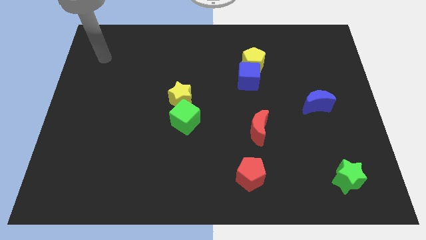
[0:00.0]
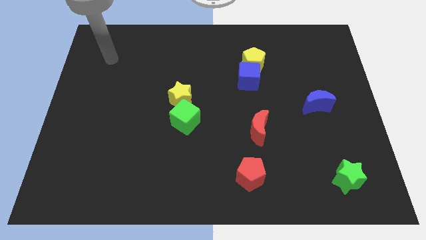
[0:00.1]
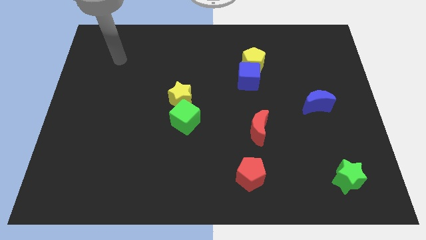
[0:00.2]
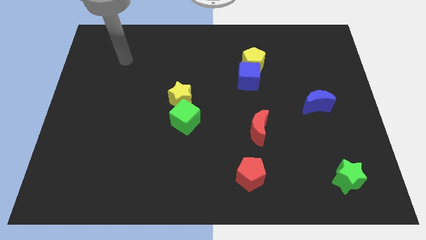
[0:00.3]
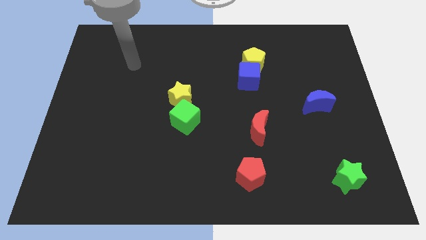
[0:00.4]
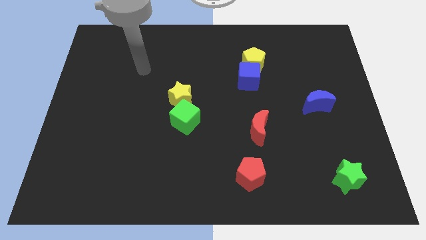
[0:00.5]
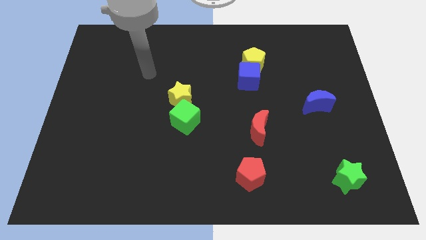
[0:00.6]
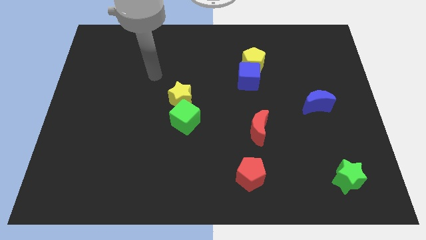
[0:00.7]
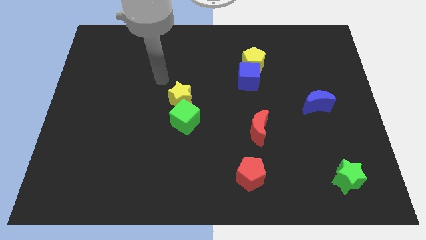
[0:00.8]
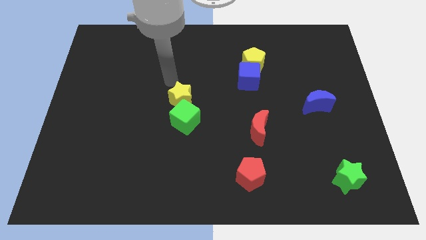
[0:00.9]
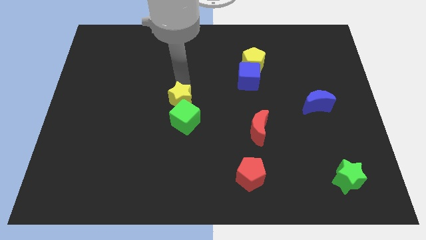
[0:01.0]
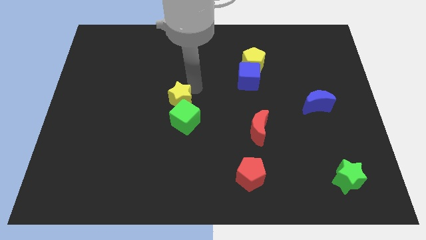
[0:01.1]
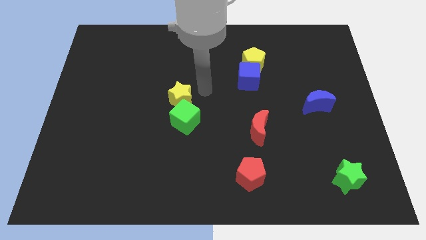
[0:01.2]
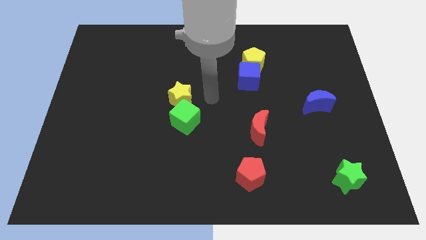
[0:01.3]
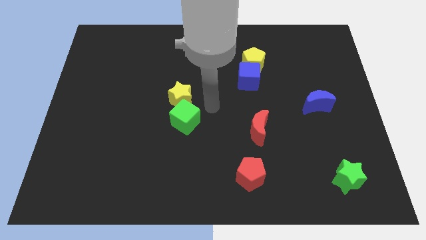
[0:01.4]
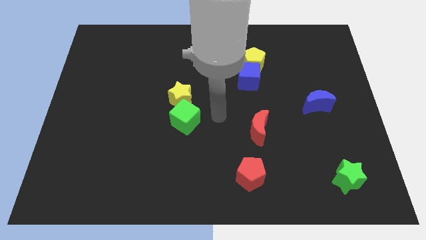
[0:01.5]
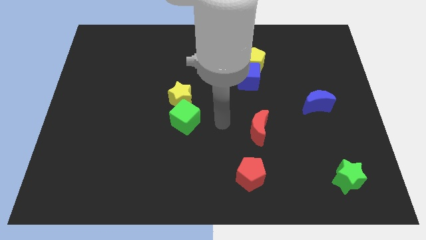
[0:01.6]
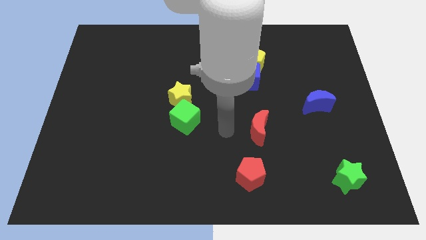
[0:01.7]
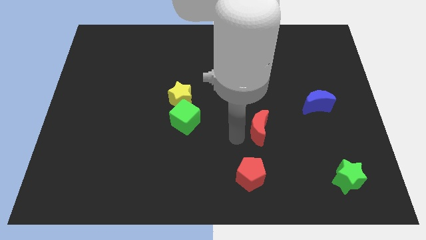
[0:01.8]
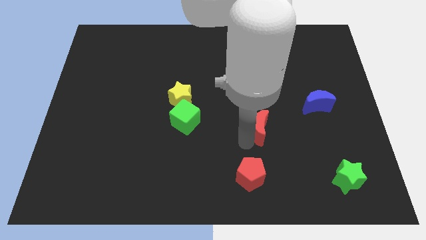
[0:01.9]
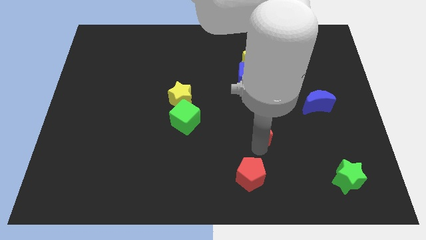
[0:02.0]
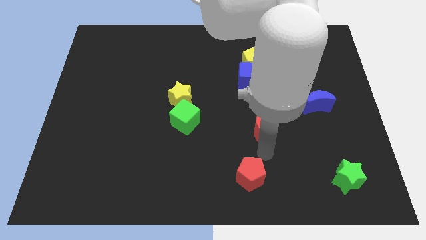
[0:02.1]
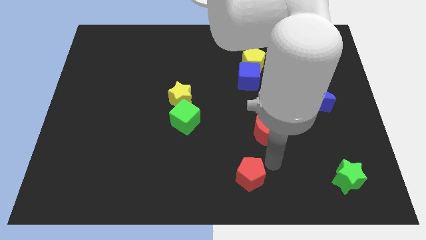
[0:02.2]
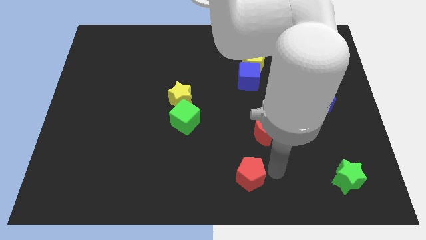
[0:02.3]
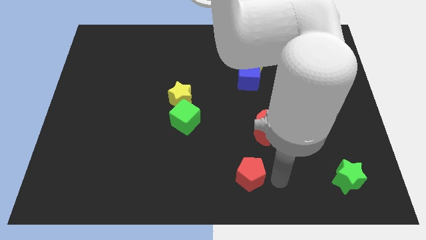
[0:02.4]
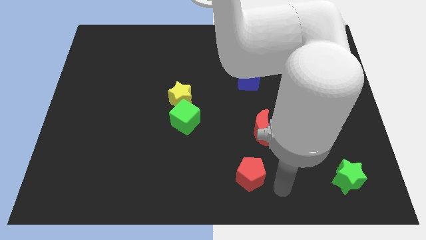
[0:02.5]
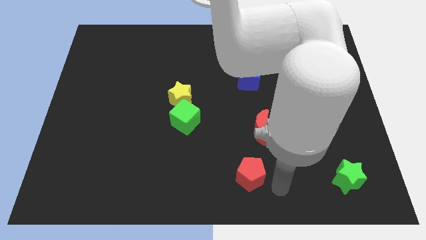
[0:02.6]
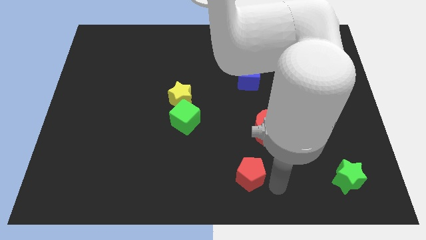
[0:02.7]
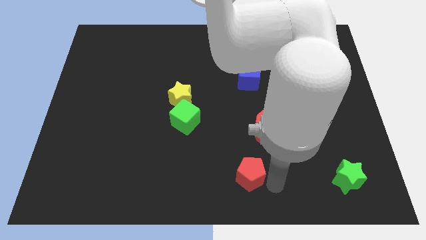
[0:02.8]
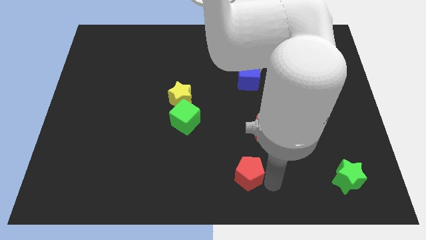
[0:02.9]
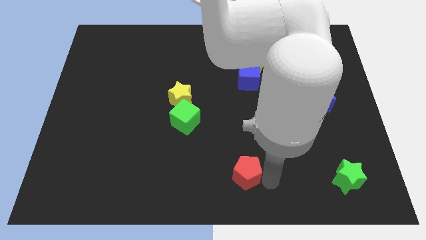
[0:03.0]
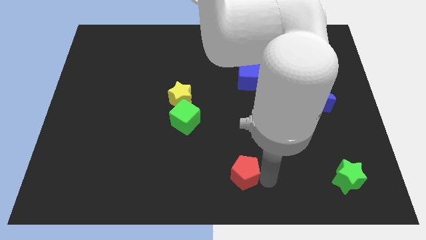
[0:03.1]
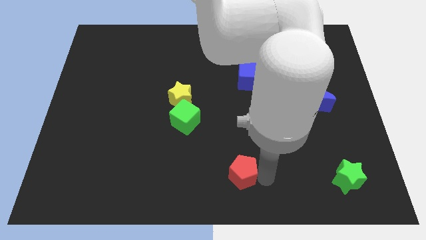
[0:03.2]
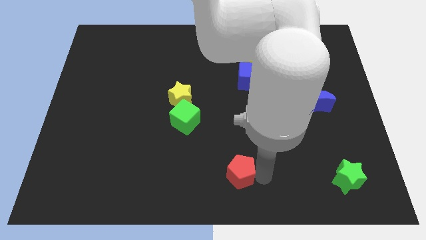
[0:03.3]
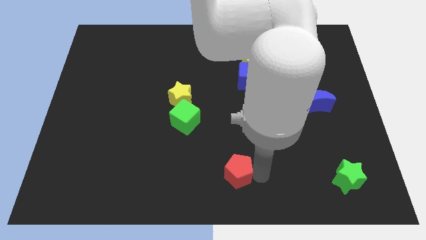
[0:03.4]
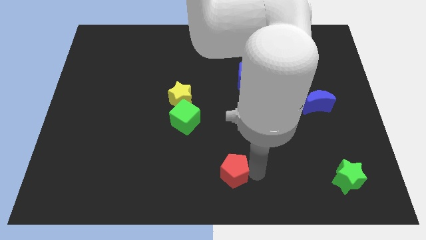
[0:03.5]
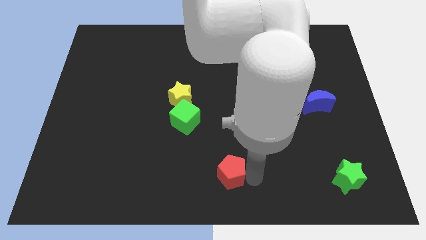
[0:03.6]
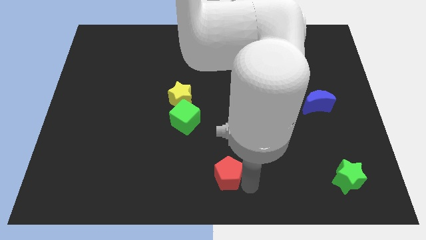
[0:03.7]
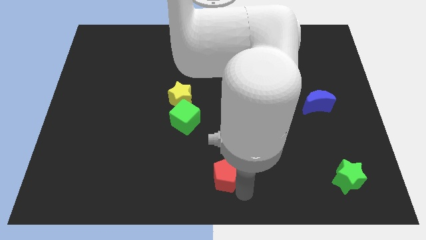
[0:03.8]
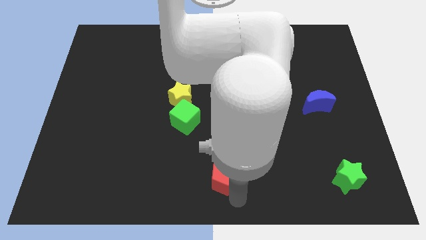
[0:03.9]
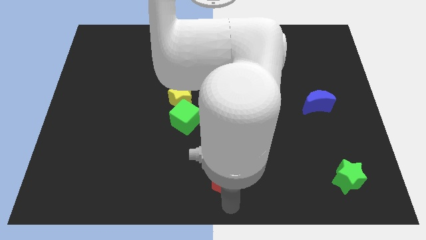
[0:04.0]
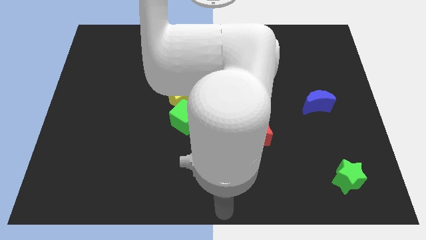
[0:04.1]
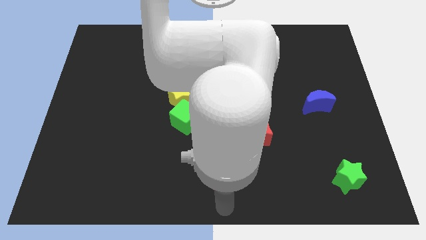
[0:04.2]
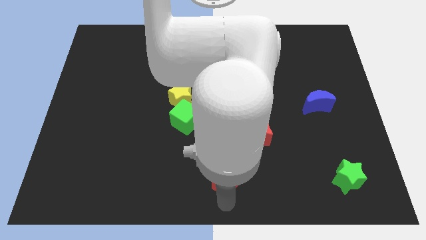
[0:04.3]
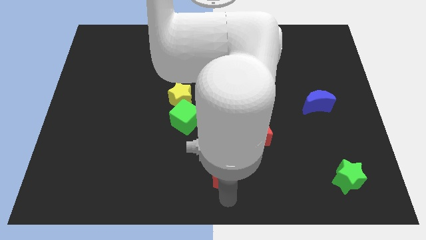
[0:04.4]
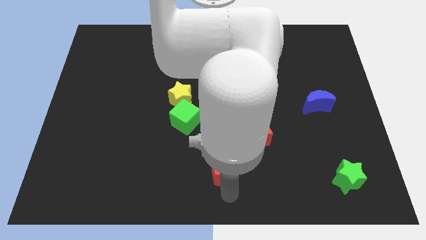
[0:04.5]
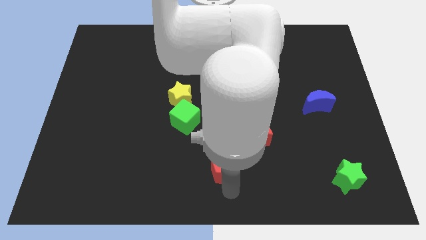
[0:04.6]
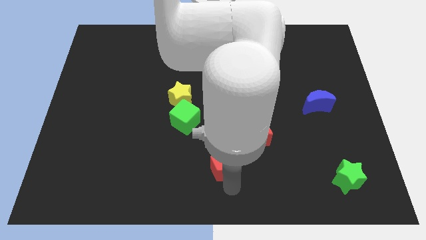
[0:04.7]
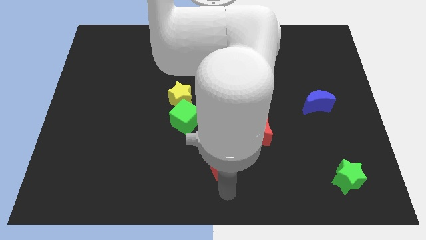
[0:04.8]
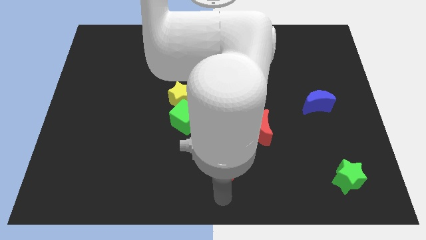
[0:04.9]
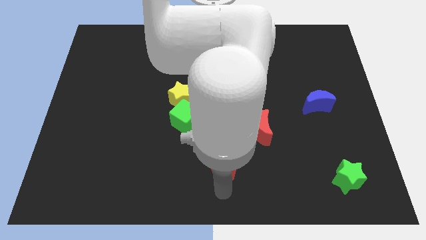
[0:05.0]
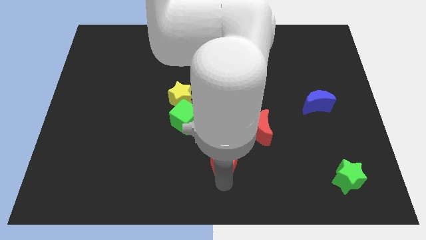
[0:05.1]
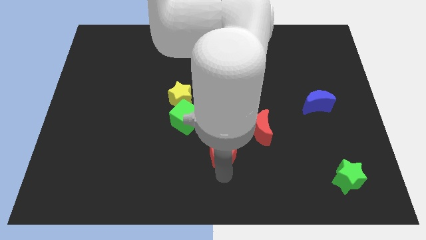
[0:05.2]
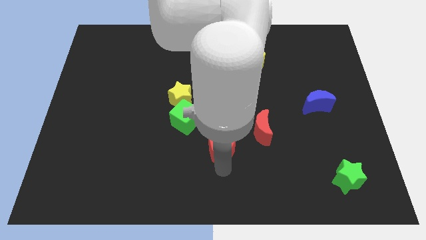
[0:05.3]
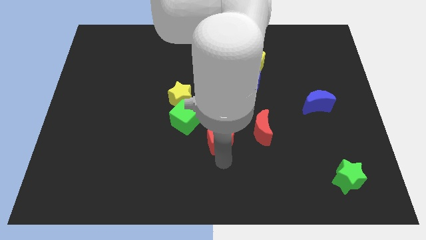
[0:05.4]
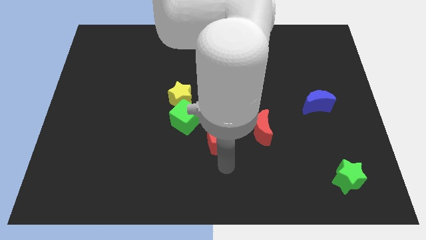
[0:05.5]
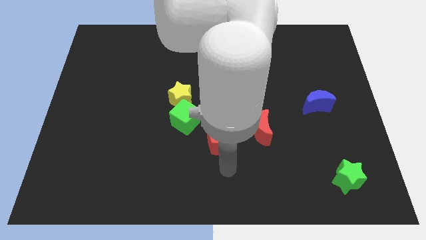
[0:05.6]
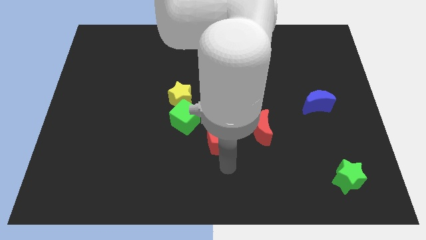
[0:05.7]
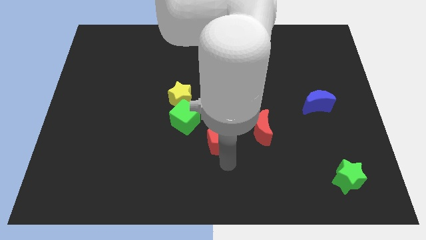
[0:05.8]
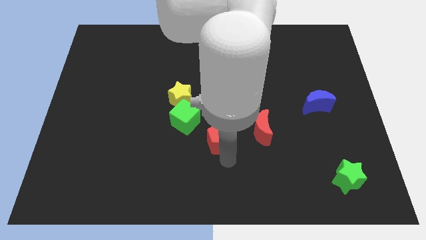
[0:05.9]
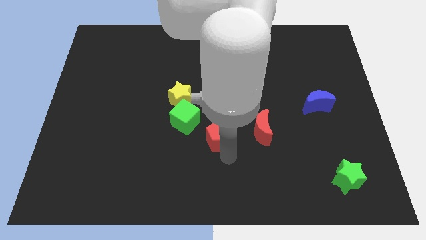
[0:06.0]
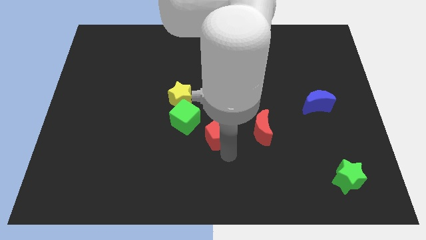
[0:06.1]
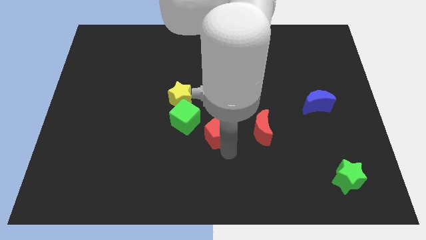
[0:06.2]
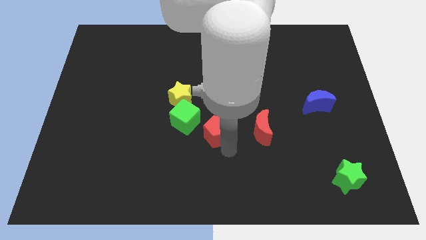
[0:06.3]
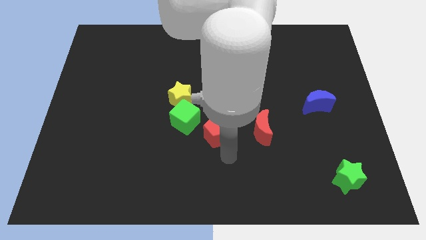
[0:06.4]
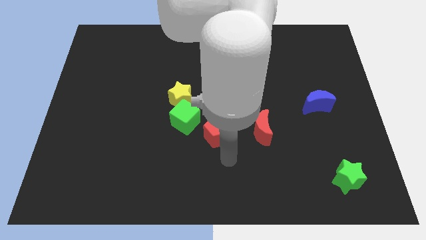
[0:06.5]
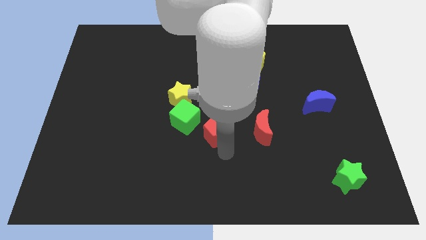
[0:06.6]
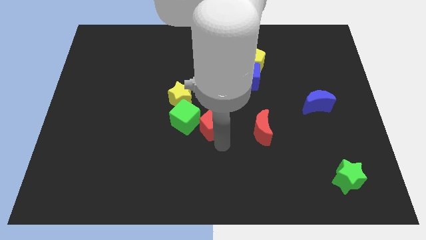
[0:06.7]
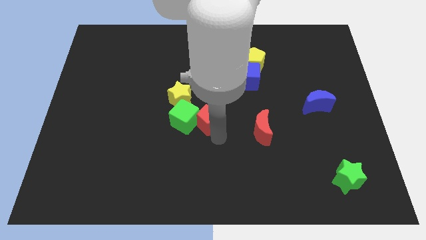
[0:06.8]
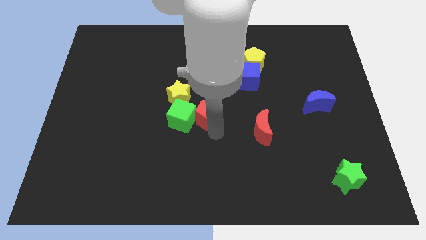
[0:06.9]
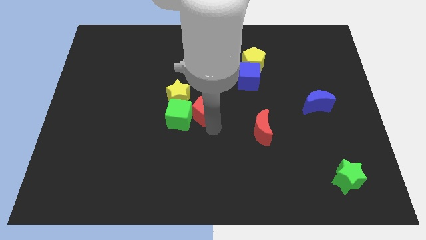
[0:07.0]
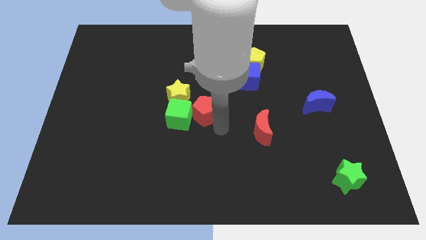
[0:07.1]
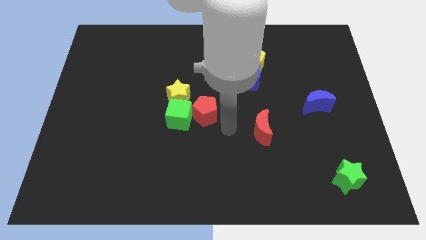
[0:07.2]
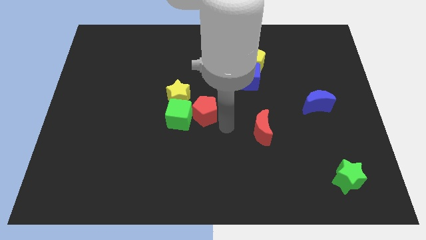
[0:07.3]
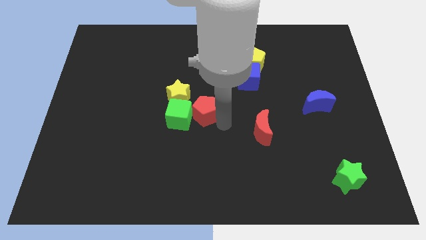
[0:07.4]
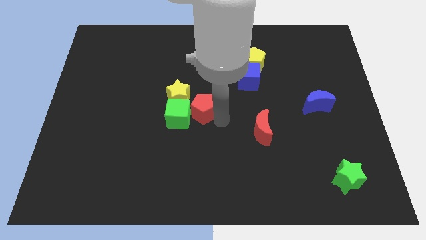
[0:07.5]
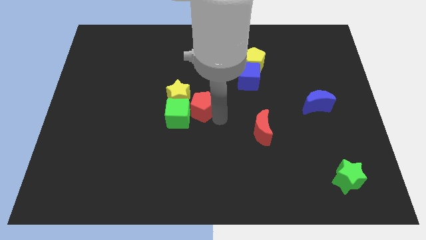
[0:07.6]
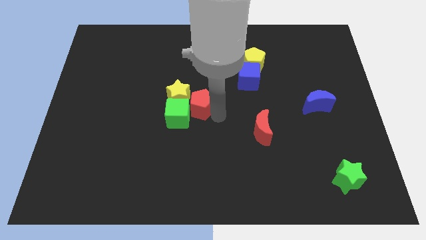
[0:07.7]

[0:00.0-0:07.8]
push the red pentagon next to the yellow star
